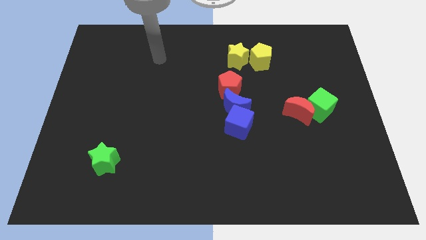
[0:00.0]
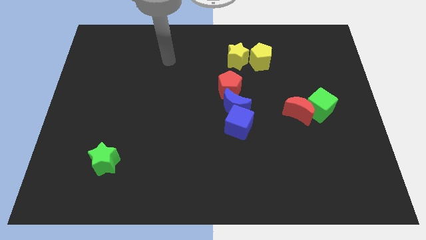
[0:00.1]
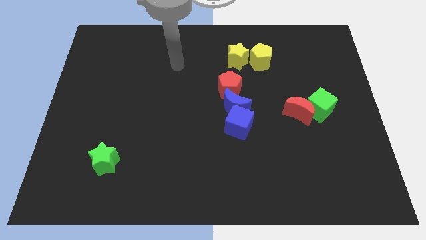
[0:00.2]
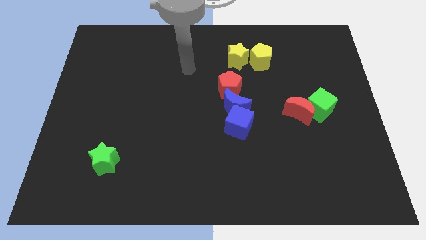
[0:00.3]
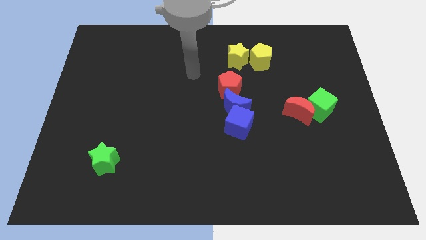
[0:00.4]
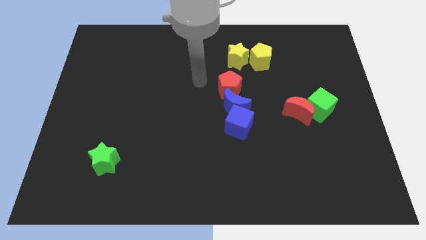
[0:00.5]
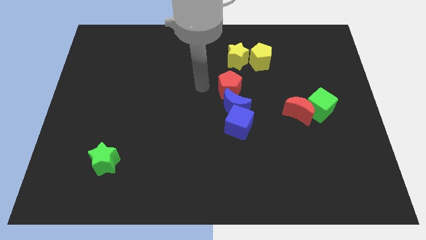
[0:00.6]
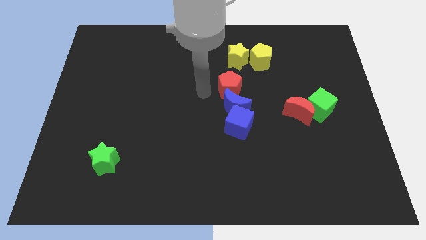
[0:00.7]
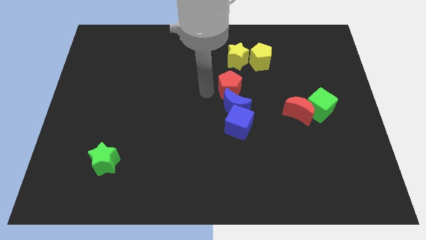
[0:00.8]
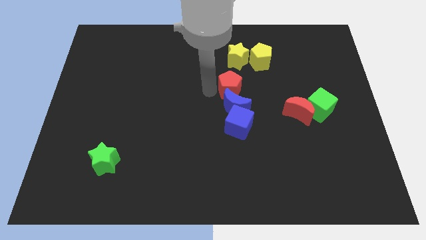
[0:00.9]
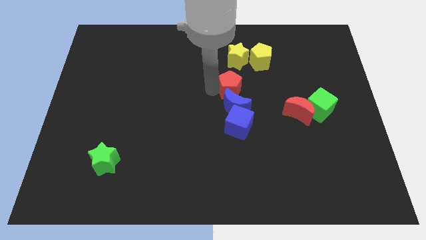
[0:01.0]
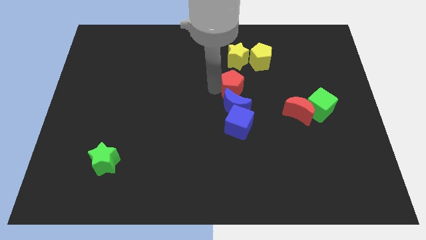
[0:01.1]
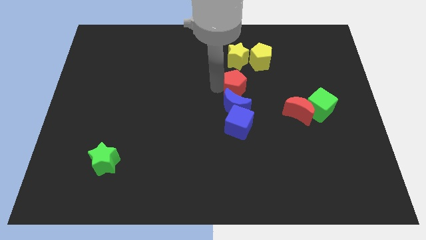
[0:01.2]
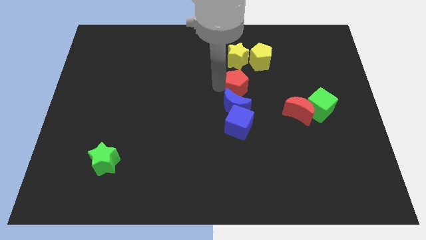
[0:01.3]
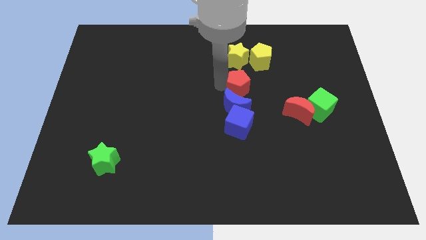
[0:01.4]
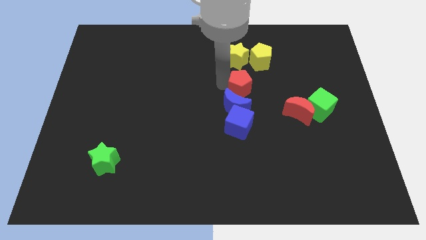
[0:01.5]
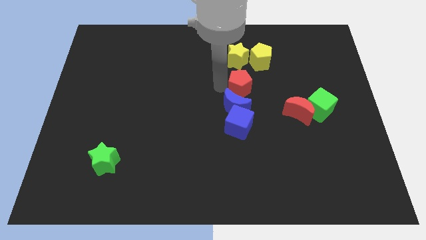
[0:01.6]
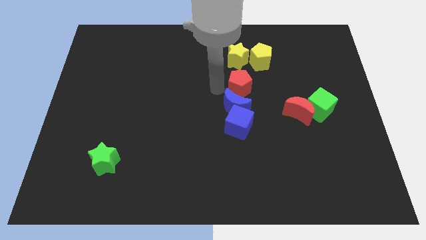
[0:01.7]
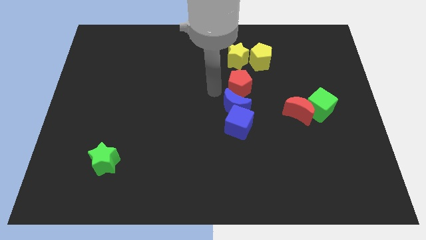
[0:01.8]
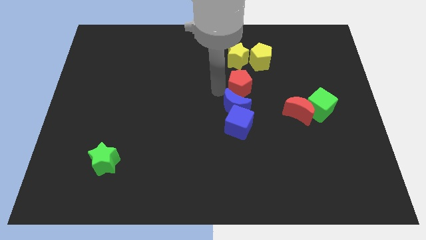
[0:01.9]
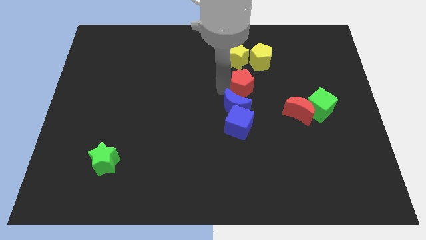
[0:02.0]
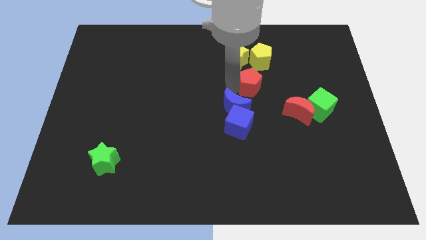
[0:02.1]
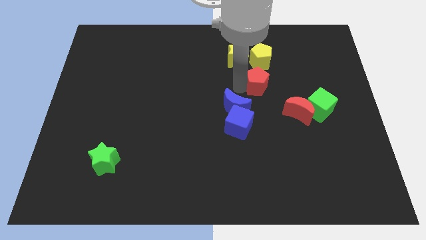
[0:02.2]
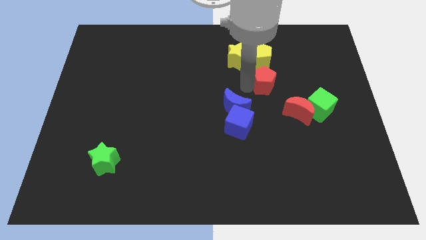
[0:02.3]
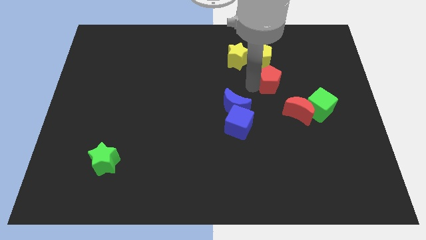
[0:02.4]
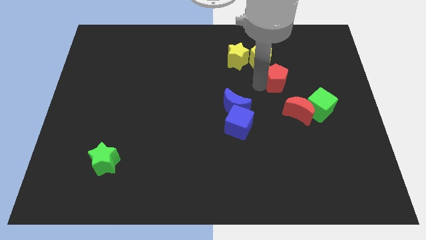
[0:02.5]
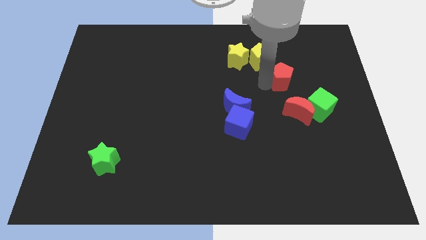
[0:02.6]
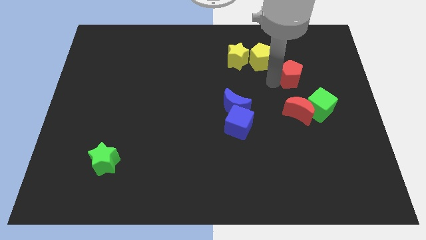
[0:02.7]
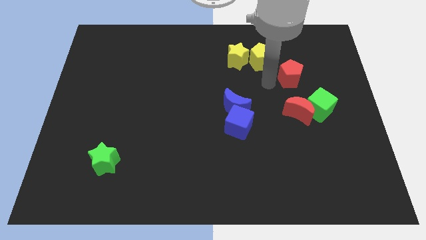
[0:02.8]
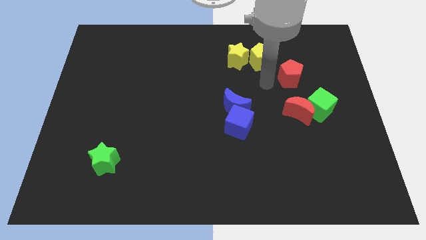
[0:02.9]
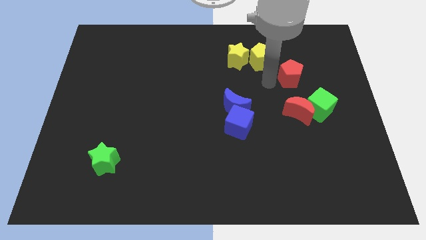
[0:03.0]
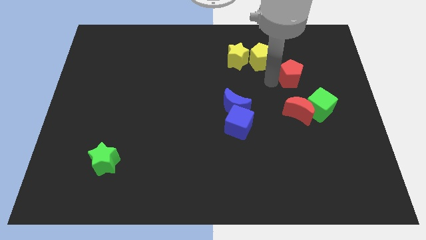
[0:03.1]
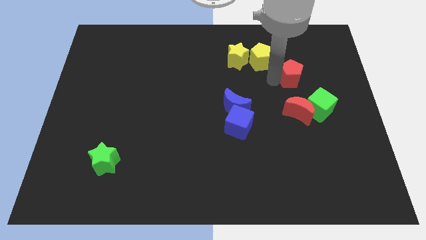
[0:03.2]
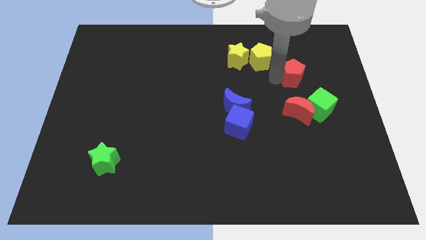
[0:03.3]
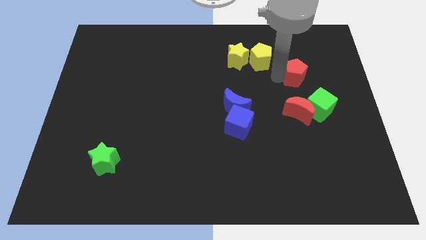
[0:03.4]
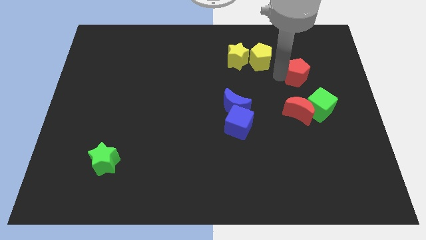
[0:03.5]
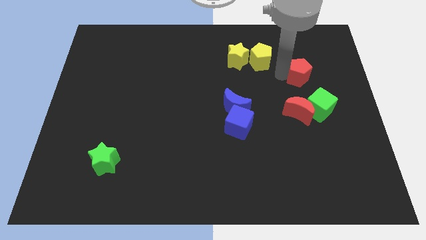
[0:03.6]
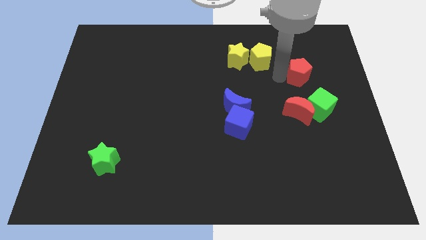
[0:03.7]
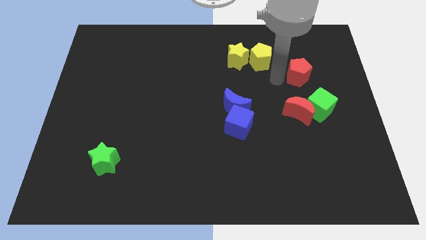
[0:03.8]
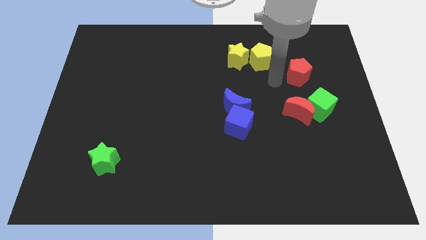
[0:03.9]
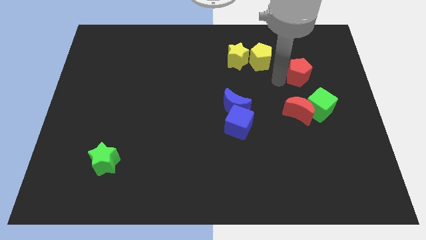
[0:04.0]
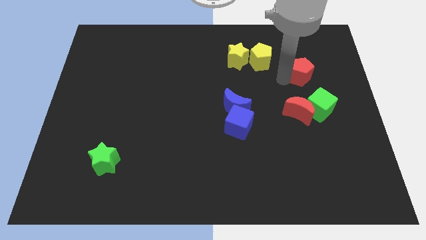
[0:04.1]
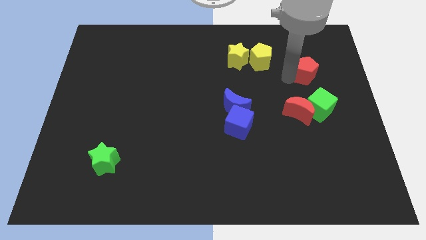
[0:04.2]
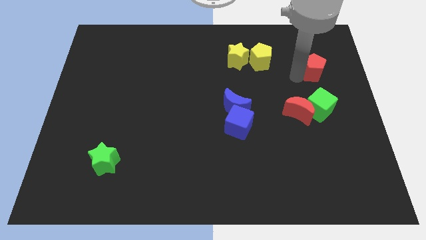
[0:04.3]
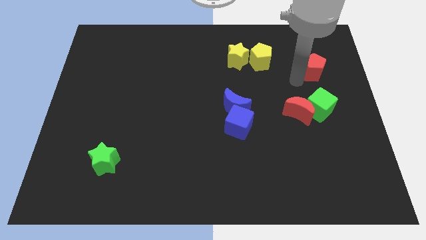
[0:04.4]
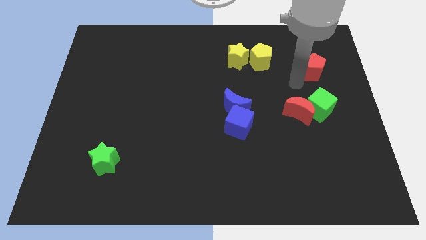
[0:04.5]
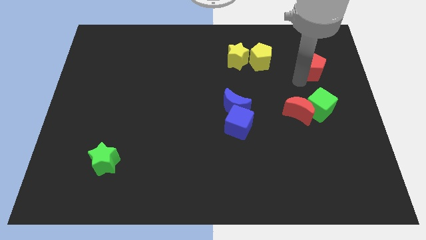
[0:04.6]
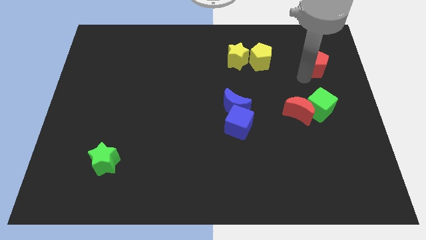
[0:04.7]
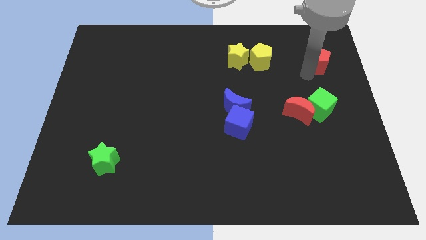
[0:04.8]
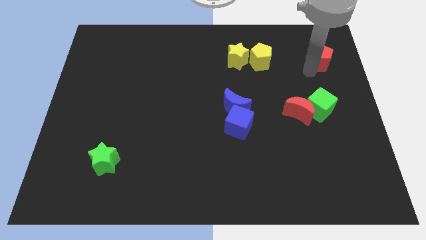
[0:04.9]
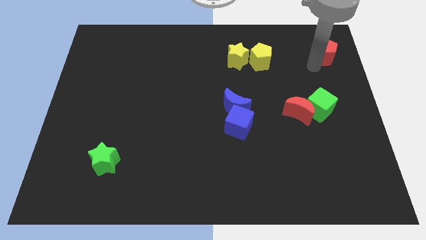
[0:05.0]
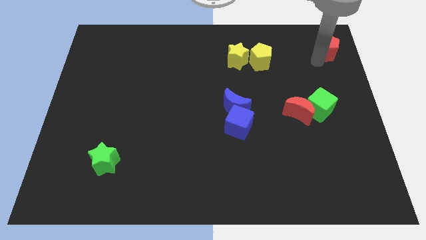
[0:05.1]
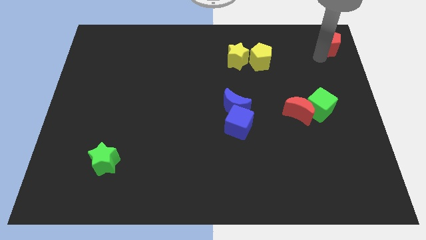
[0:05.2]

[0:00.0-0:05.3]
slide the red pentagon to the top right corner

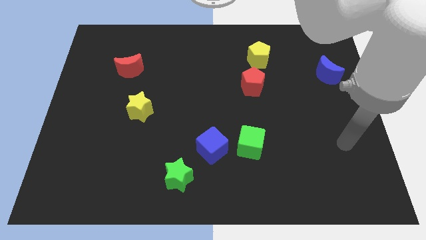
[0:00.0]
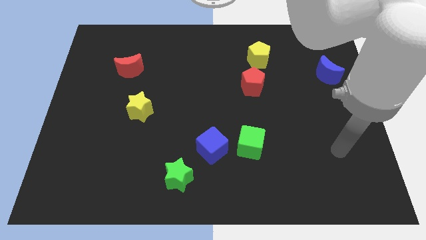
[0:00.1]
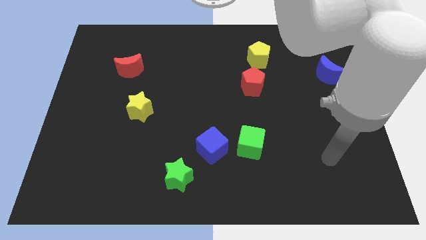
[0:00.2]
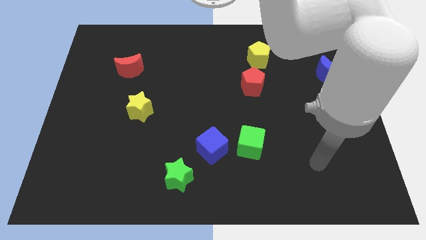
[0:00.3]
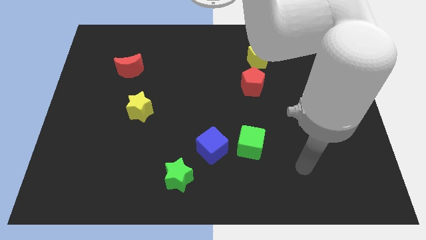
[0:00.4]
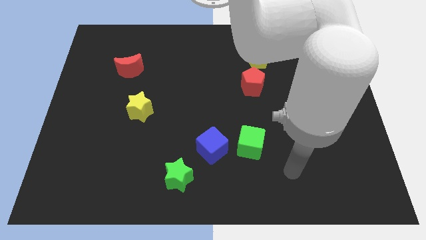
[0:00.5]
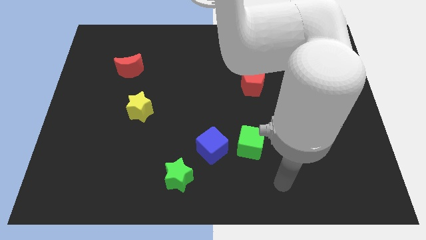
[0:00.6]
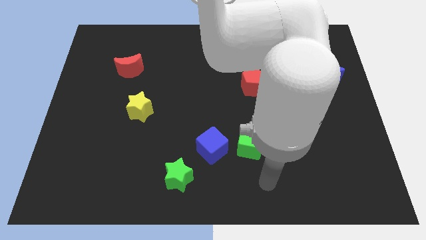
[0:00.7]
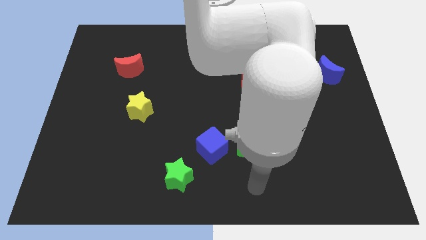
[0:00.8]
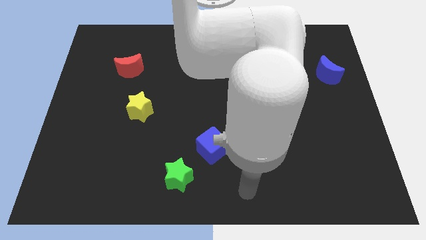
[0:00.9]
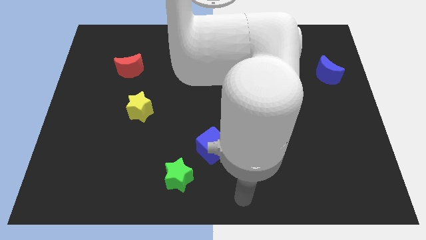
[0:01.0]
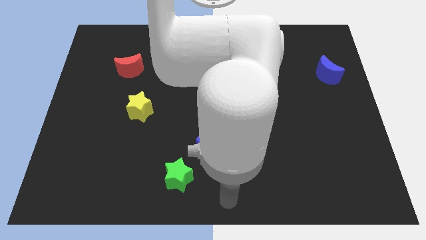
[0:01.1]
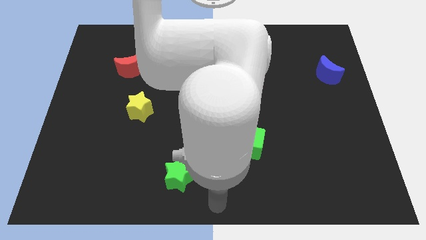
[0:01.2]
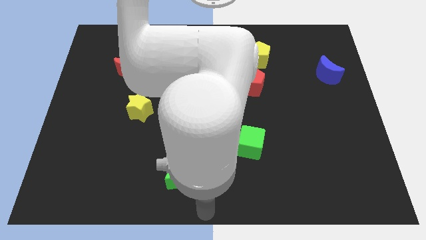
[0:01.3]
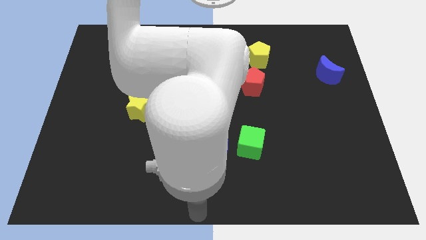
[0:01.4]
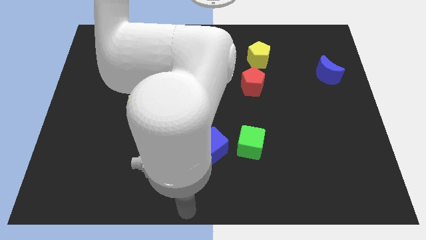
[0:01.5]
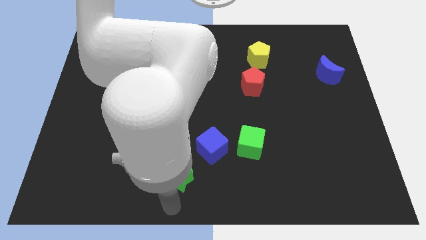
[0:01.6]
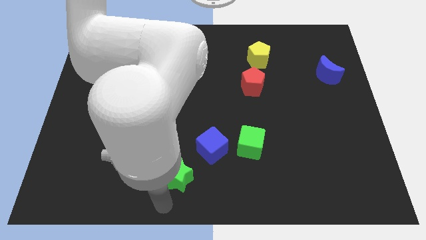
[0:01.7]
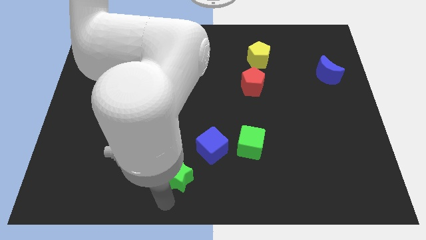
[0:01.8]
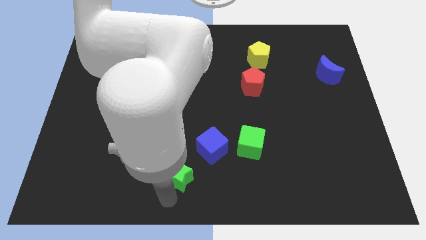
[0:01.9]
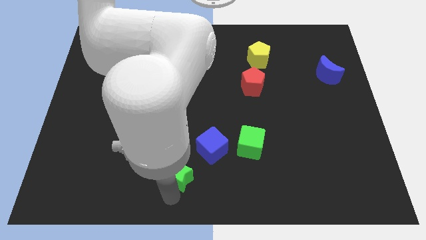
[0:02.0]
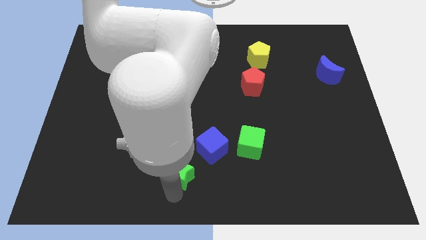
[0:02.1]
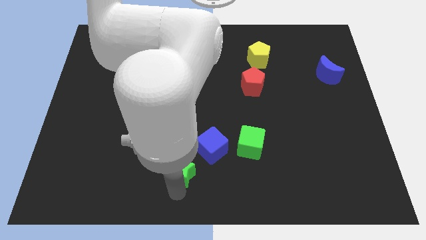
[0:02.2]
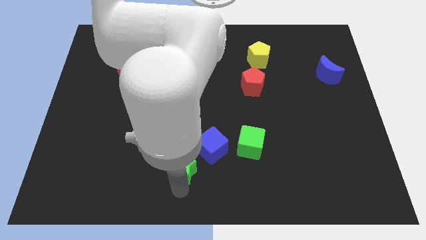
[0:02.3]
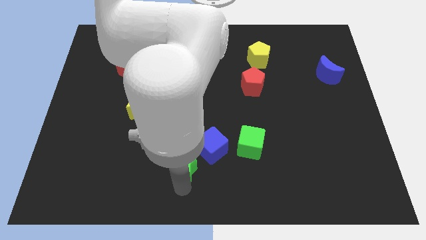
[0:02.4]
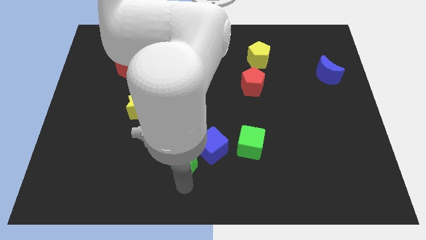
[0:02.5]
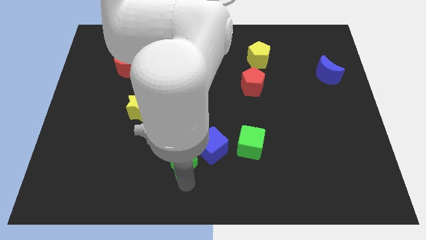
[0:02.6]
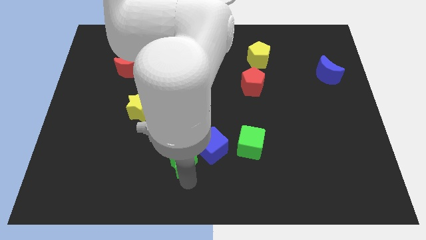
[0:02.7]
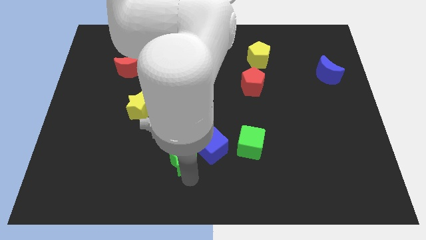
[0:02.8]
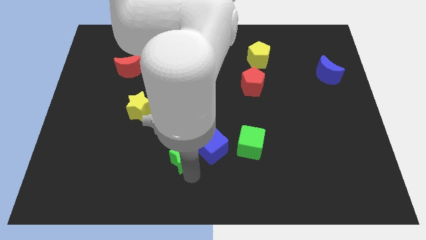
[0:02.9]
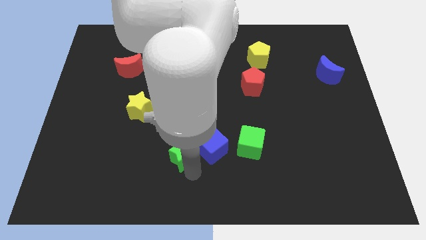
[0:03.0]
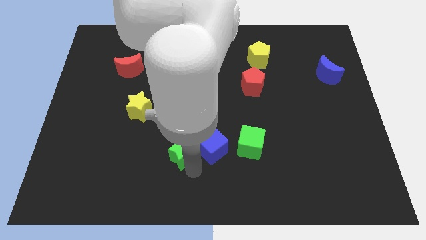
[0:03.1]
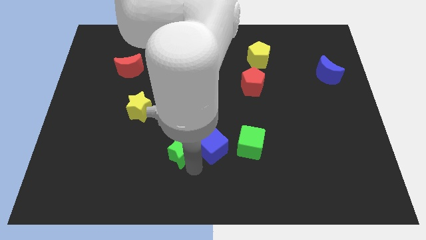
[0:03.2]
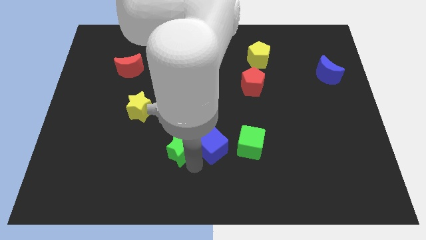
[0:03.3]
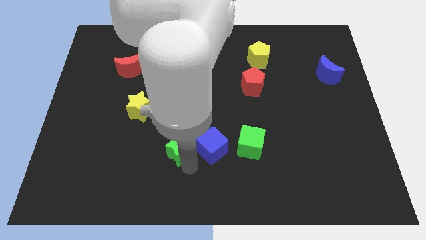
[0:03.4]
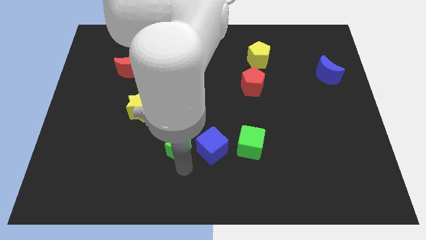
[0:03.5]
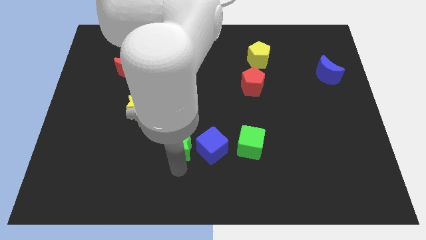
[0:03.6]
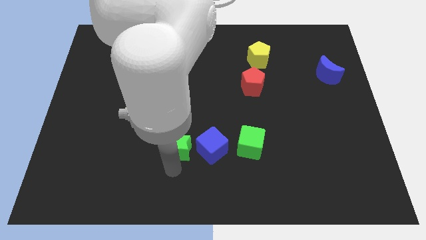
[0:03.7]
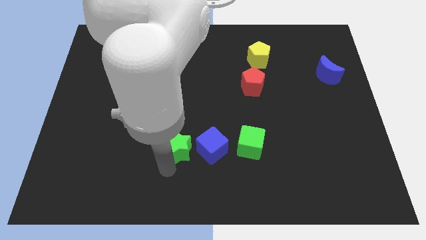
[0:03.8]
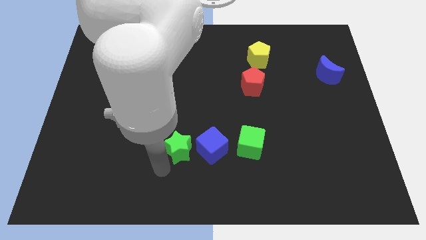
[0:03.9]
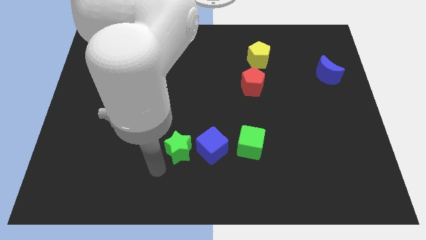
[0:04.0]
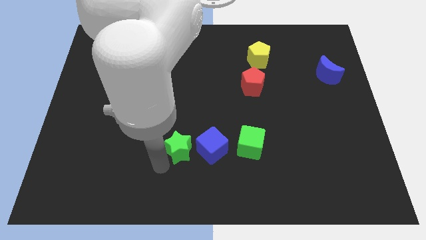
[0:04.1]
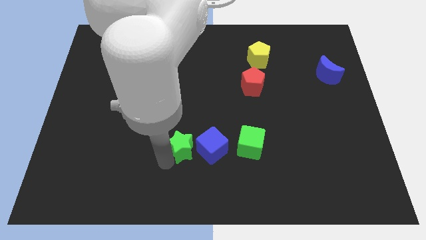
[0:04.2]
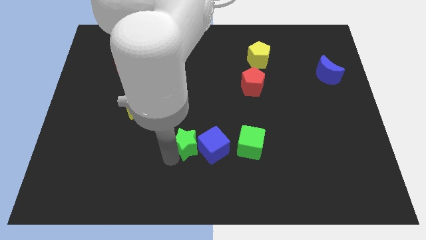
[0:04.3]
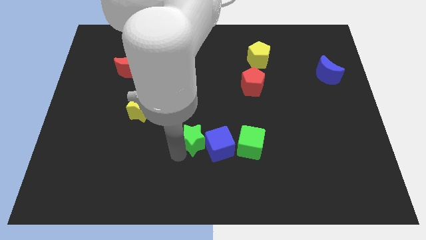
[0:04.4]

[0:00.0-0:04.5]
put the green star to the center
